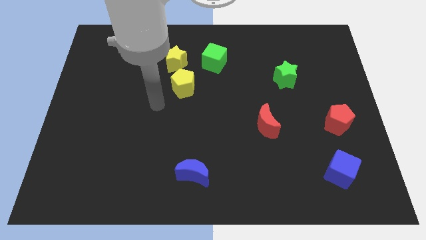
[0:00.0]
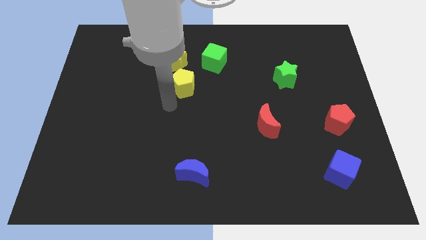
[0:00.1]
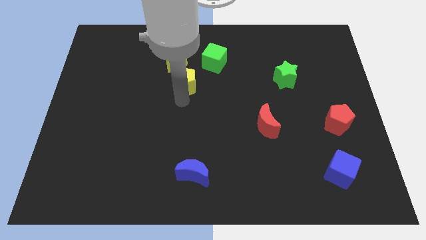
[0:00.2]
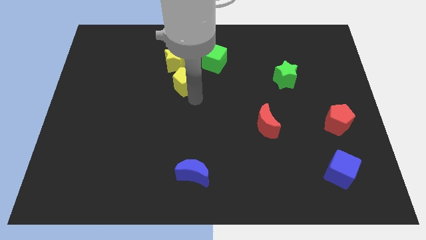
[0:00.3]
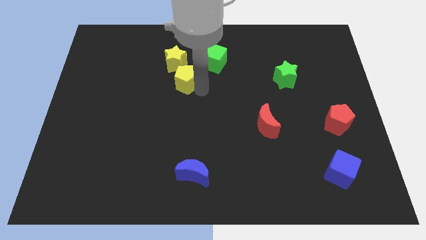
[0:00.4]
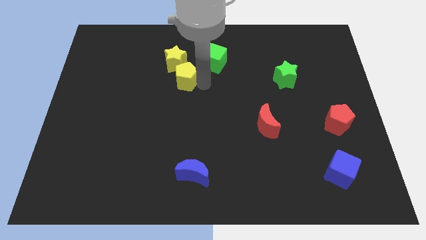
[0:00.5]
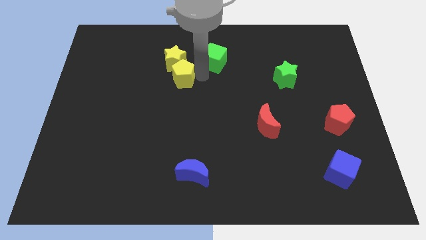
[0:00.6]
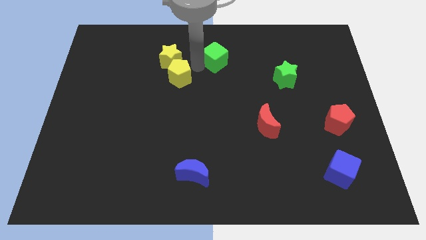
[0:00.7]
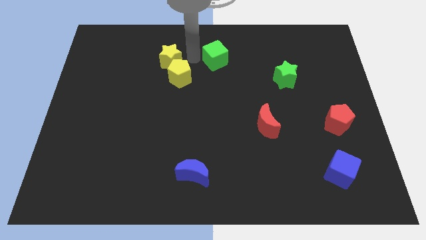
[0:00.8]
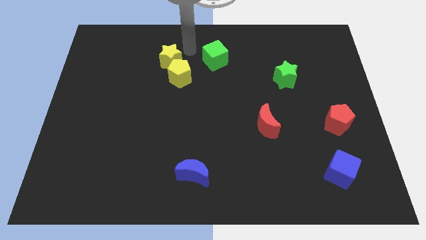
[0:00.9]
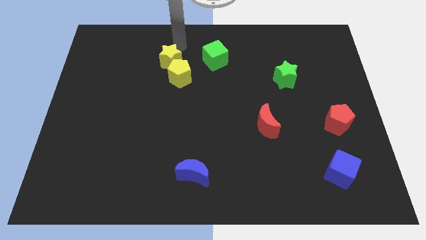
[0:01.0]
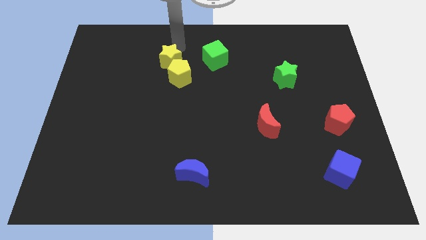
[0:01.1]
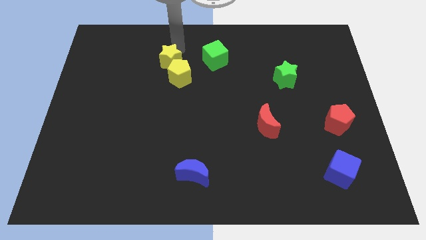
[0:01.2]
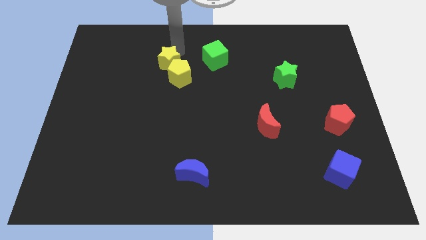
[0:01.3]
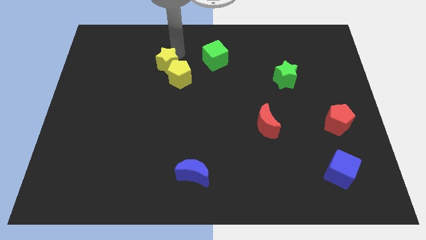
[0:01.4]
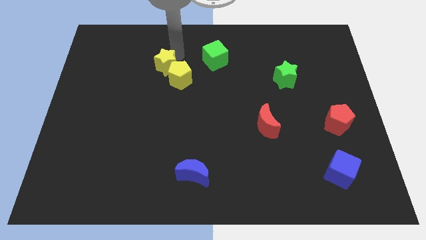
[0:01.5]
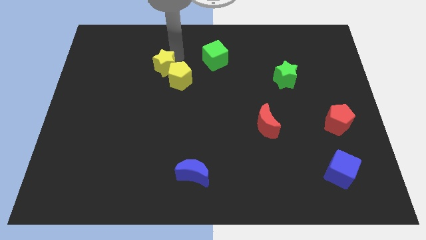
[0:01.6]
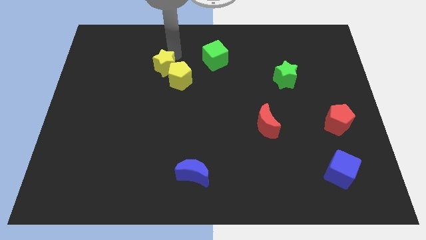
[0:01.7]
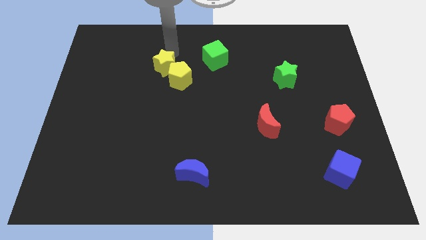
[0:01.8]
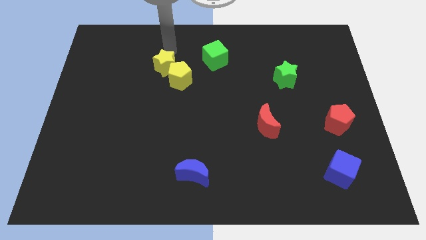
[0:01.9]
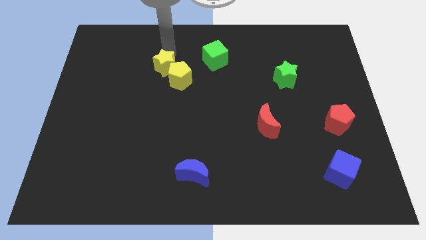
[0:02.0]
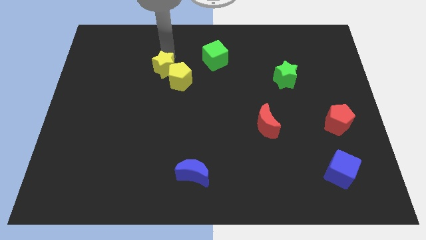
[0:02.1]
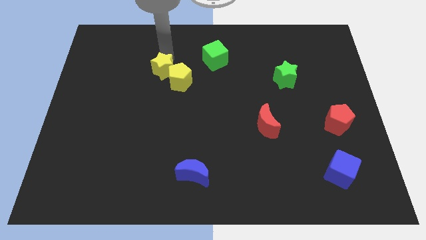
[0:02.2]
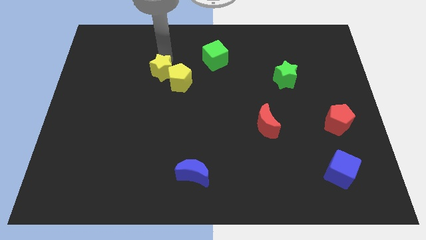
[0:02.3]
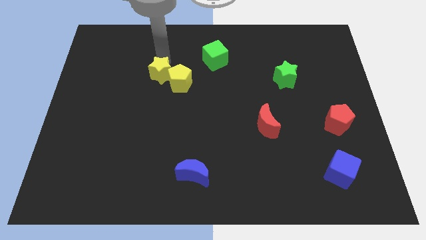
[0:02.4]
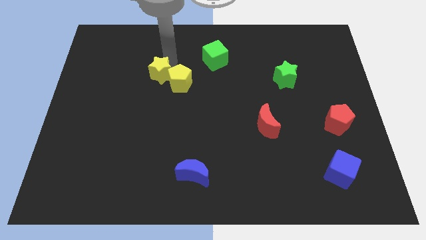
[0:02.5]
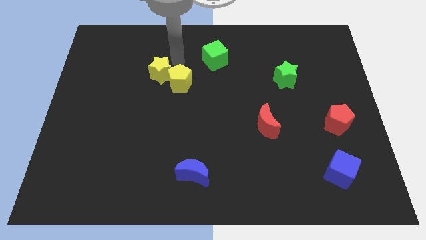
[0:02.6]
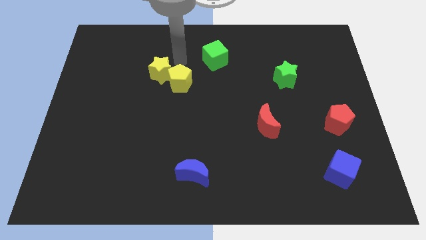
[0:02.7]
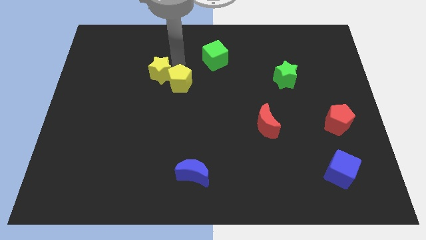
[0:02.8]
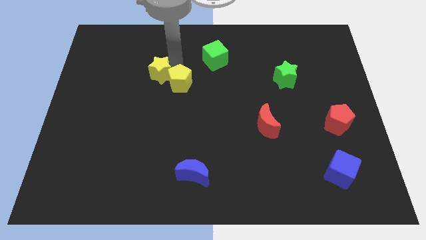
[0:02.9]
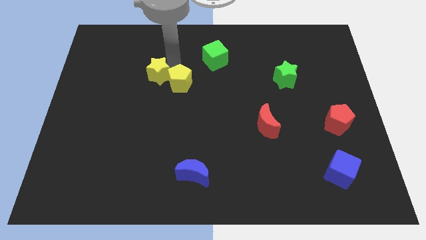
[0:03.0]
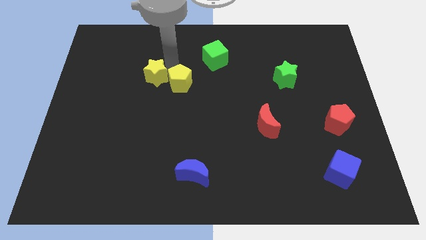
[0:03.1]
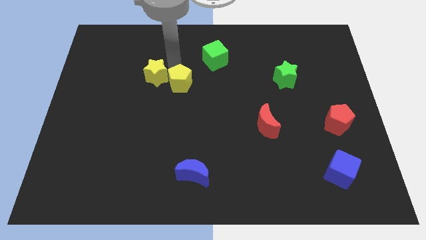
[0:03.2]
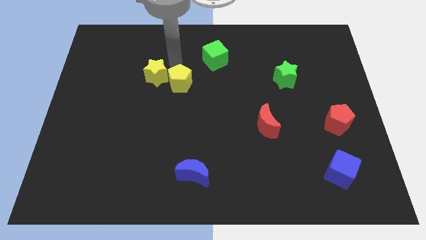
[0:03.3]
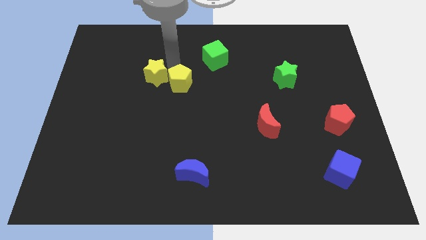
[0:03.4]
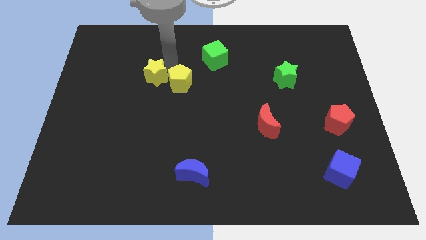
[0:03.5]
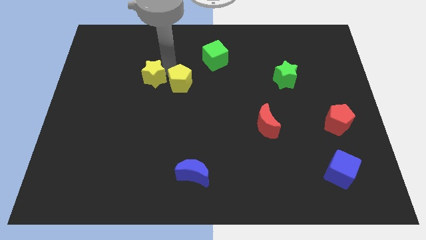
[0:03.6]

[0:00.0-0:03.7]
move the yellow star down and to the left diagonally a little

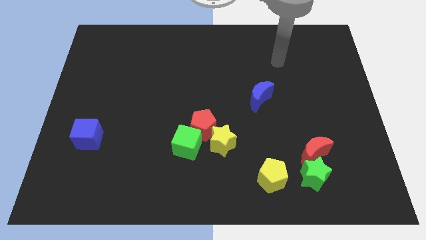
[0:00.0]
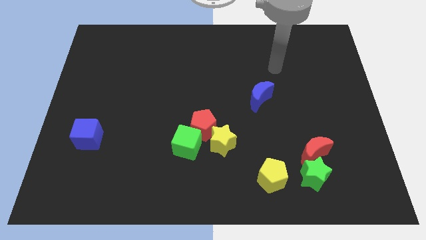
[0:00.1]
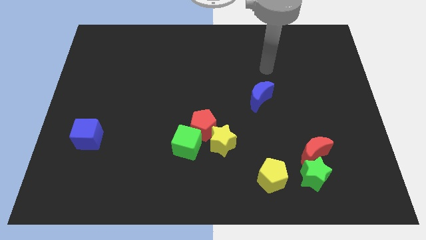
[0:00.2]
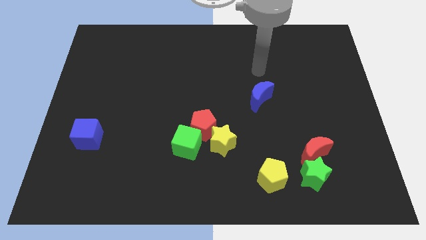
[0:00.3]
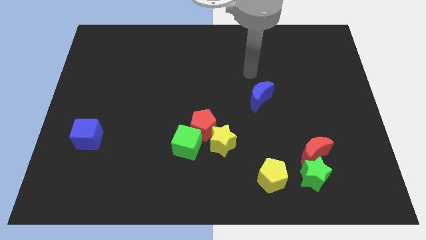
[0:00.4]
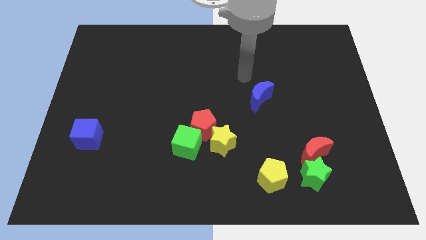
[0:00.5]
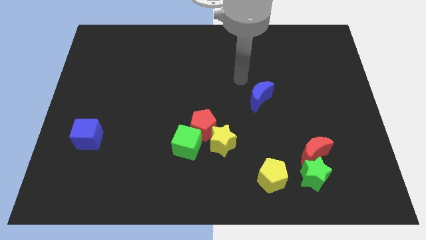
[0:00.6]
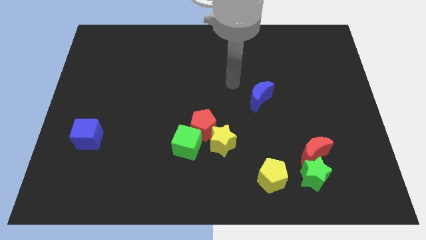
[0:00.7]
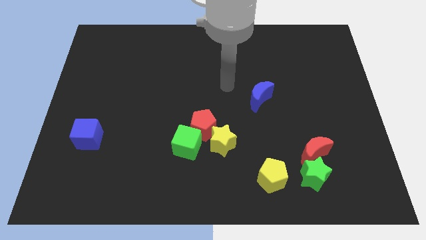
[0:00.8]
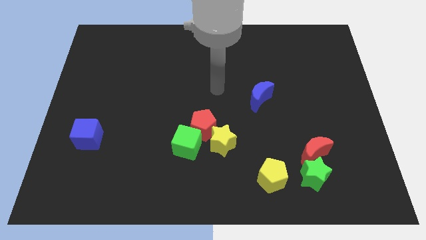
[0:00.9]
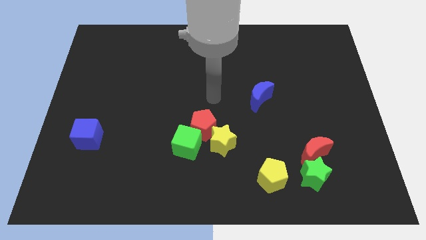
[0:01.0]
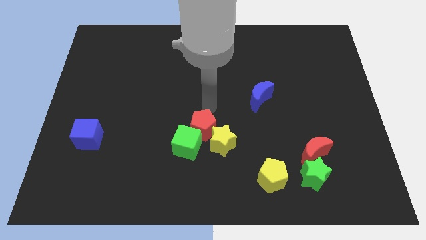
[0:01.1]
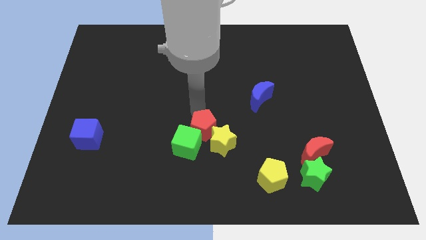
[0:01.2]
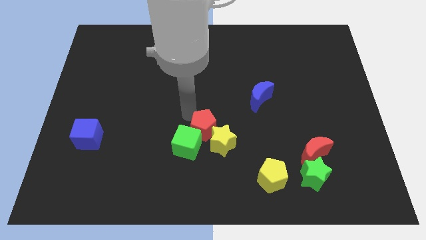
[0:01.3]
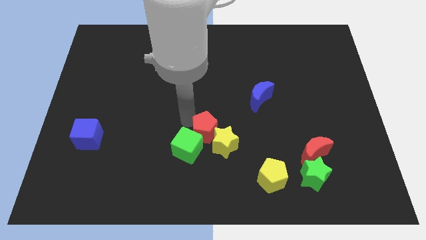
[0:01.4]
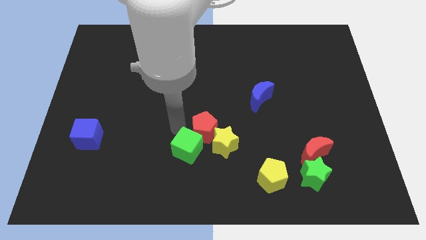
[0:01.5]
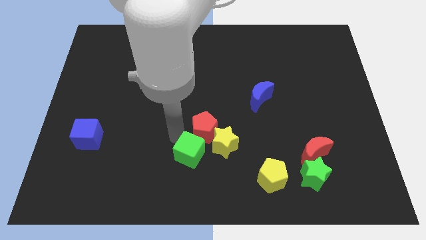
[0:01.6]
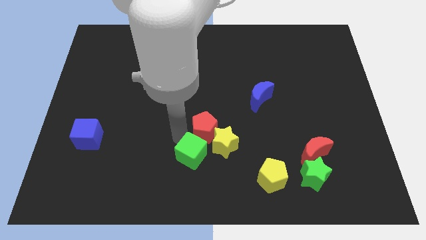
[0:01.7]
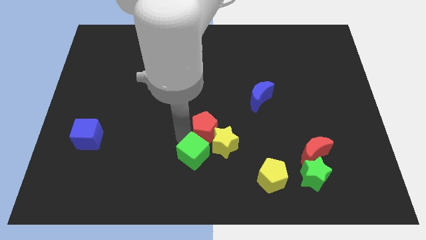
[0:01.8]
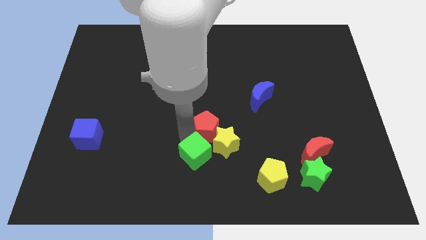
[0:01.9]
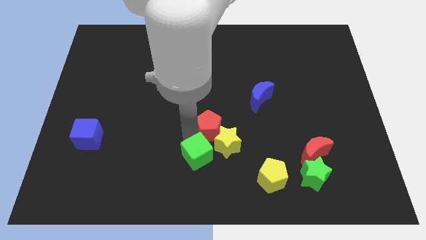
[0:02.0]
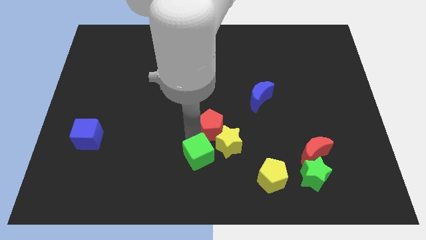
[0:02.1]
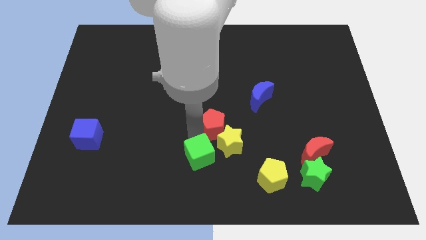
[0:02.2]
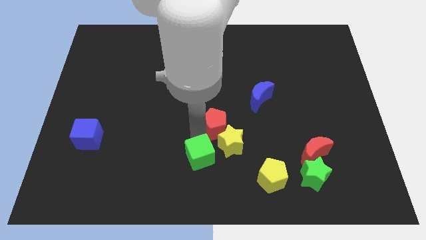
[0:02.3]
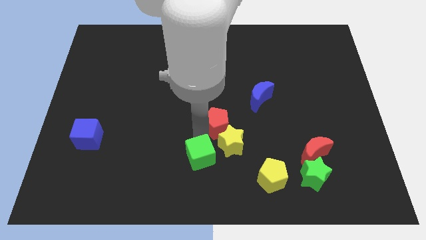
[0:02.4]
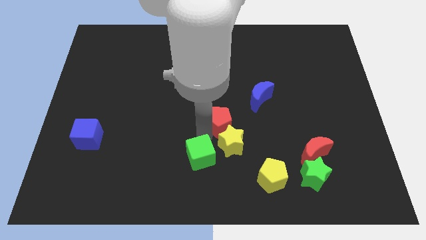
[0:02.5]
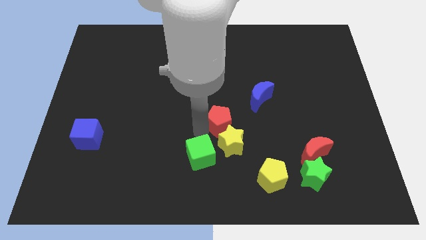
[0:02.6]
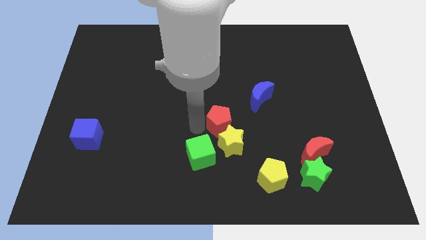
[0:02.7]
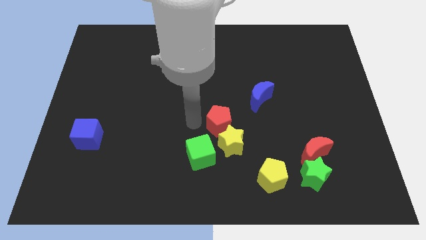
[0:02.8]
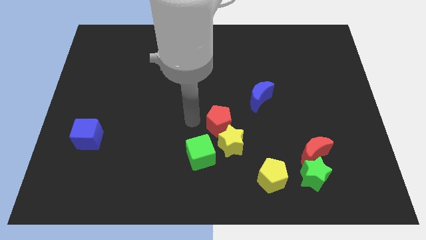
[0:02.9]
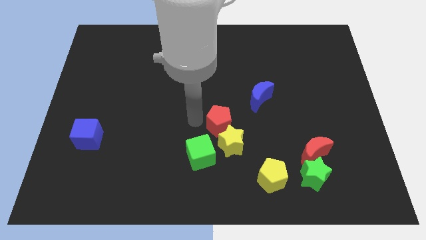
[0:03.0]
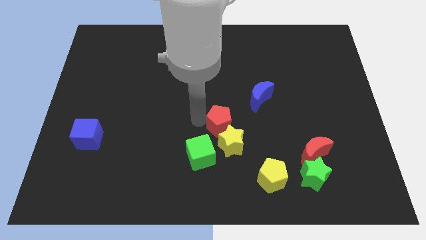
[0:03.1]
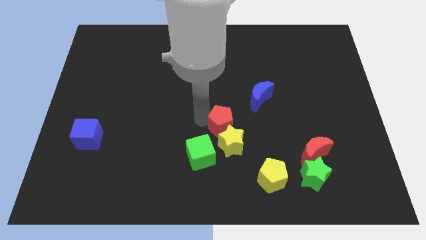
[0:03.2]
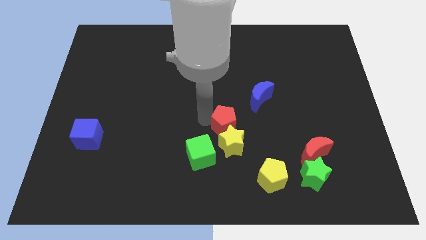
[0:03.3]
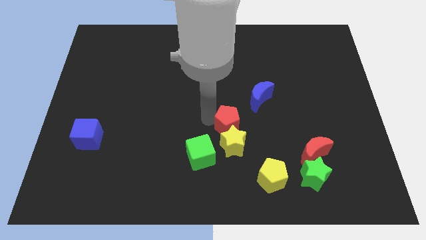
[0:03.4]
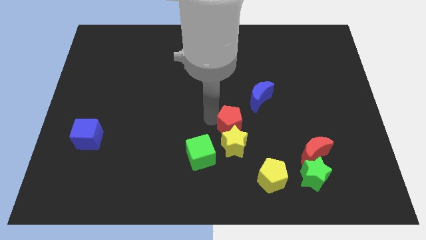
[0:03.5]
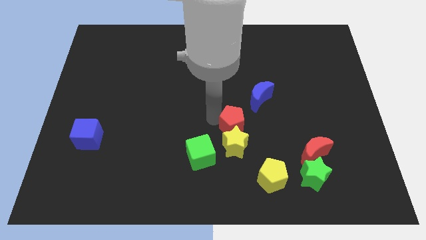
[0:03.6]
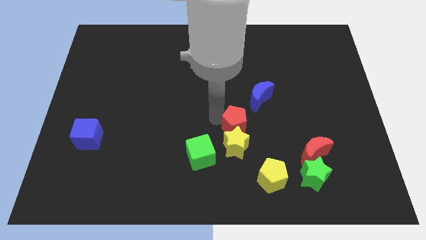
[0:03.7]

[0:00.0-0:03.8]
slightly push the red pentagon to the right

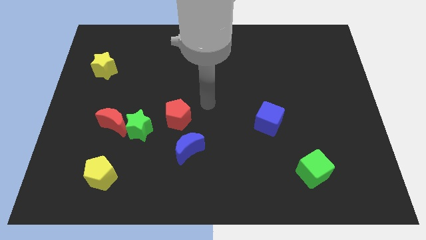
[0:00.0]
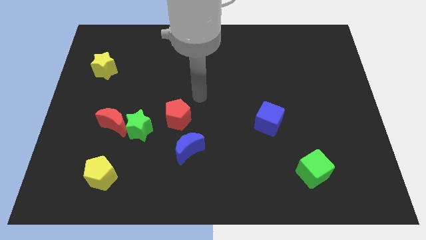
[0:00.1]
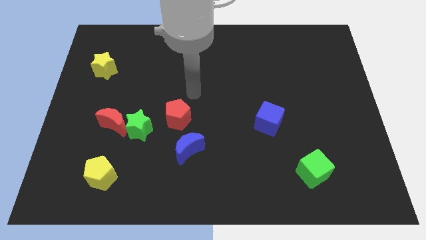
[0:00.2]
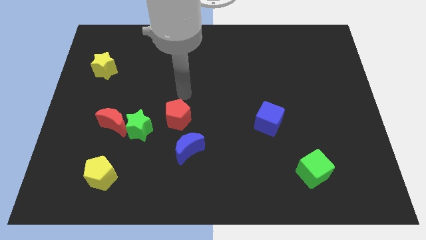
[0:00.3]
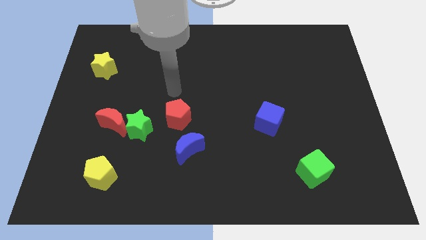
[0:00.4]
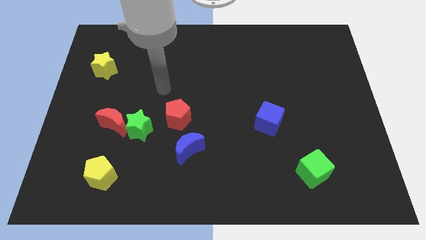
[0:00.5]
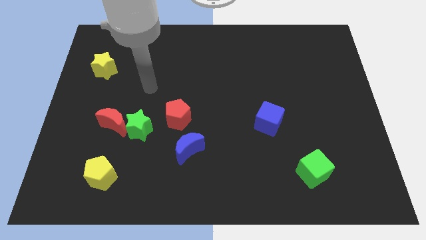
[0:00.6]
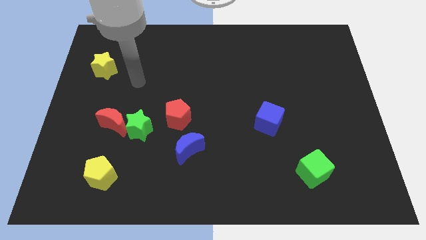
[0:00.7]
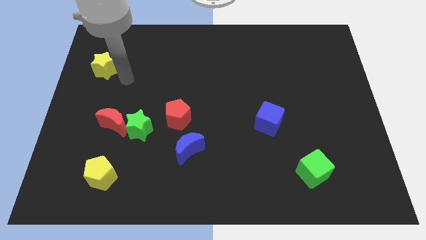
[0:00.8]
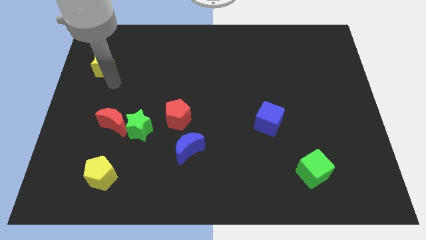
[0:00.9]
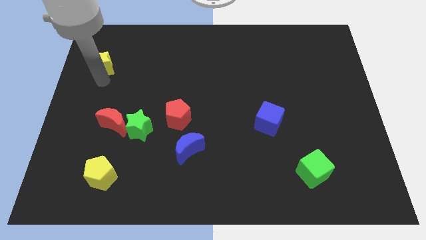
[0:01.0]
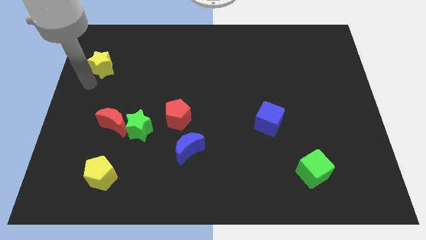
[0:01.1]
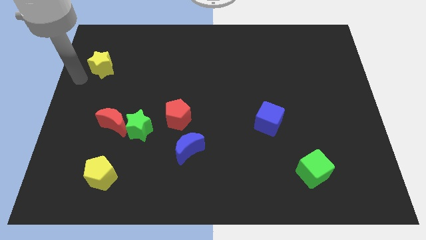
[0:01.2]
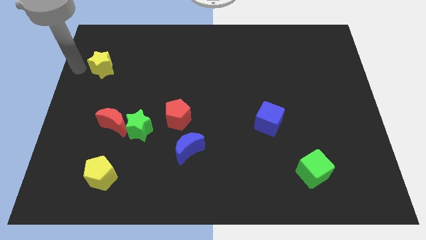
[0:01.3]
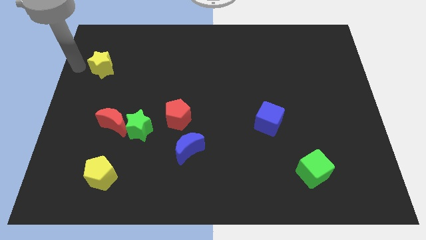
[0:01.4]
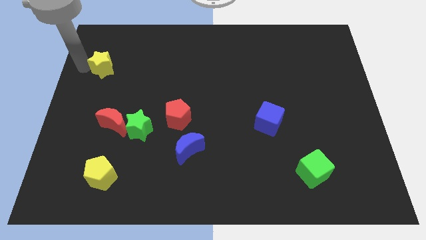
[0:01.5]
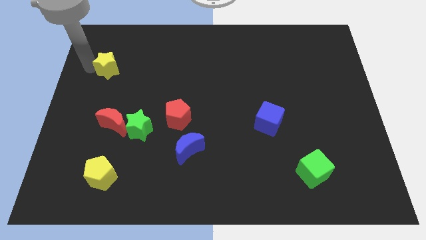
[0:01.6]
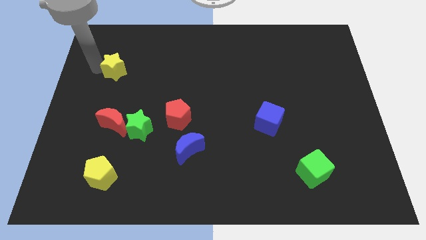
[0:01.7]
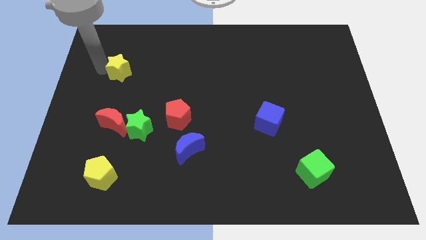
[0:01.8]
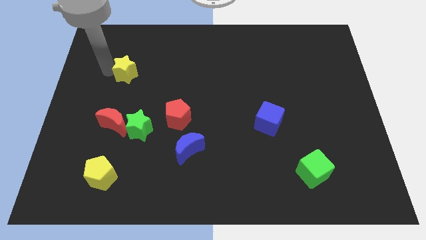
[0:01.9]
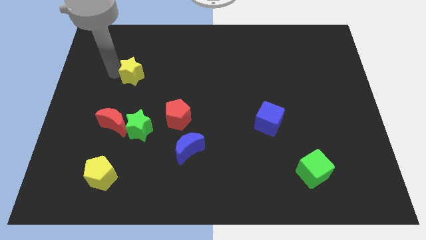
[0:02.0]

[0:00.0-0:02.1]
move the yellow star slightly to the right
